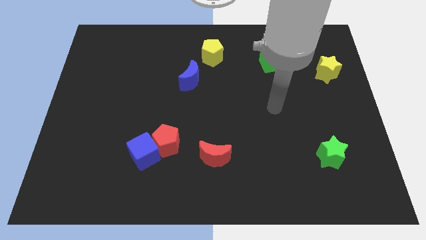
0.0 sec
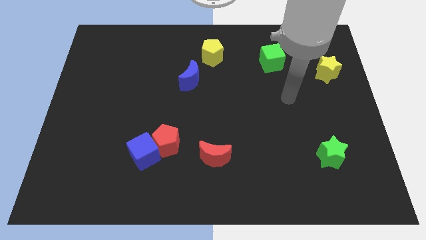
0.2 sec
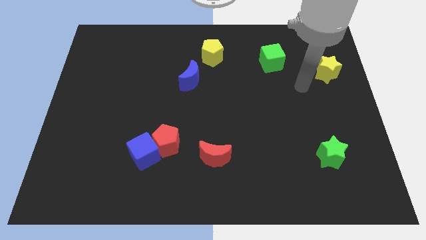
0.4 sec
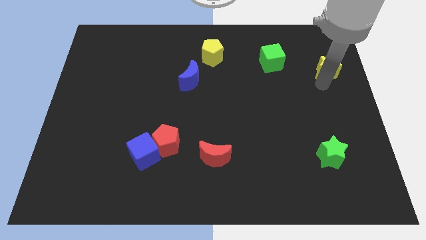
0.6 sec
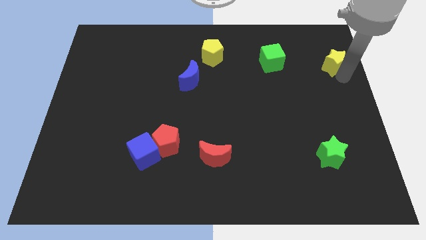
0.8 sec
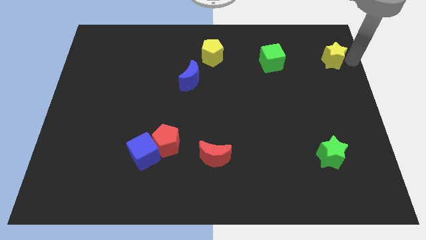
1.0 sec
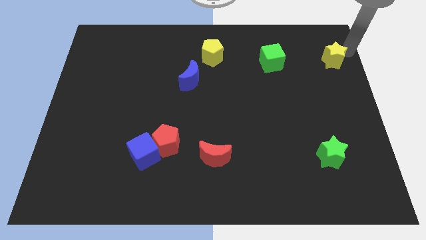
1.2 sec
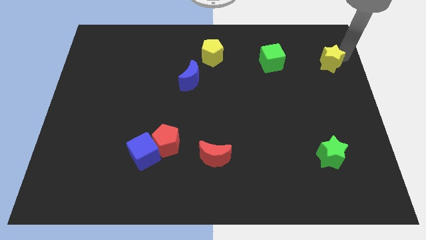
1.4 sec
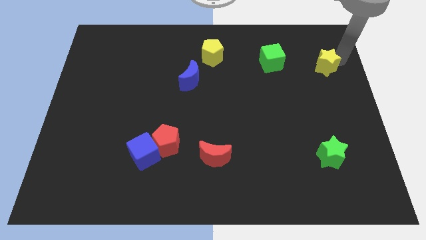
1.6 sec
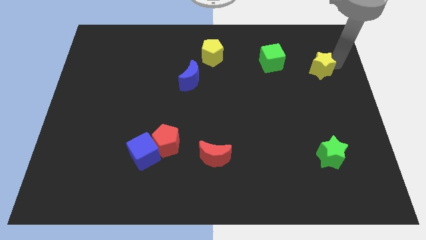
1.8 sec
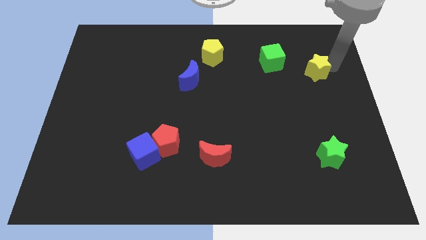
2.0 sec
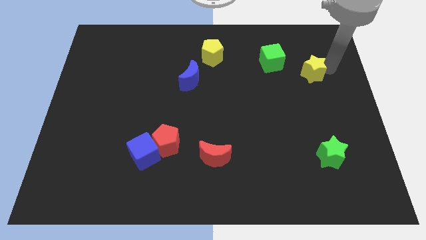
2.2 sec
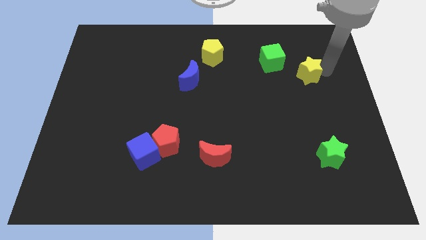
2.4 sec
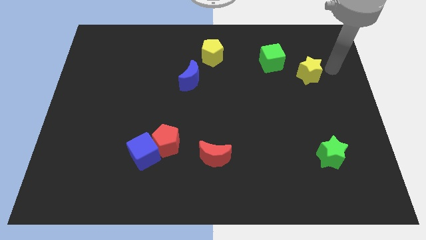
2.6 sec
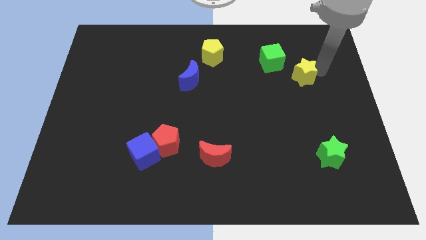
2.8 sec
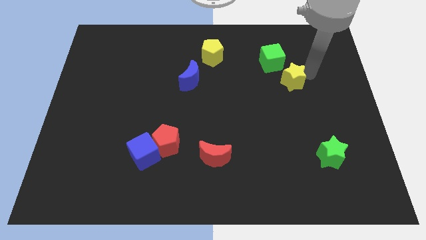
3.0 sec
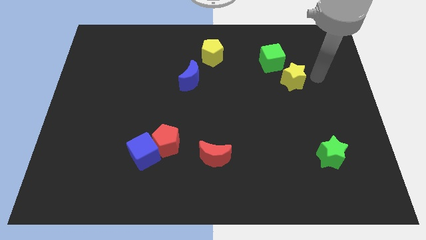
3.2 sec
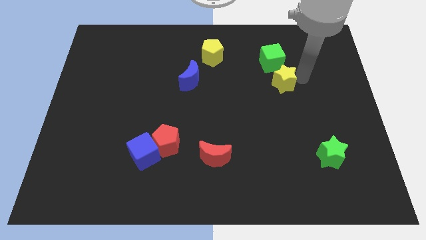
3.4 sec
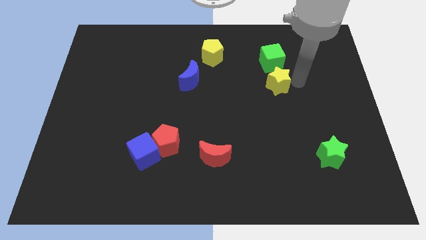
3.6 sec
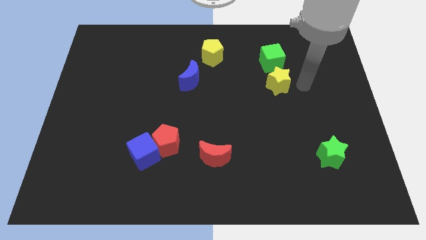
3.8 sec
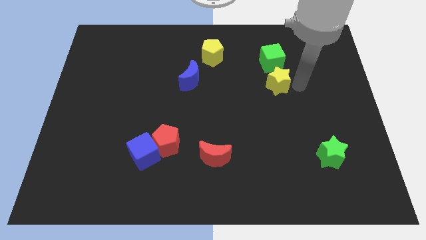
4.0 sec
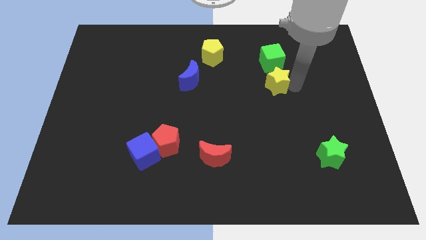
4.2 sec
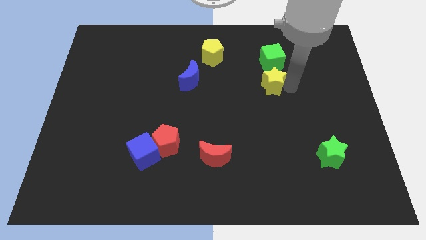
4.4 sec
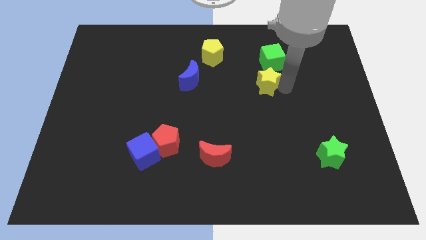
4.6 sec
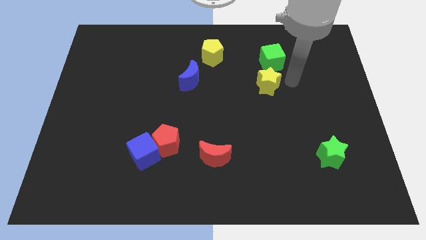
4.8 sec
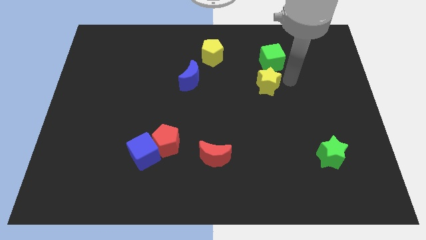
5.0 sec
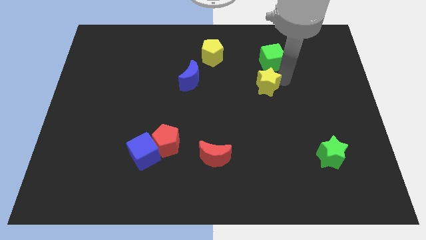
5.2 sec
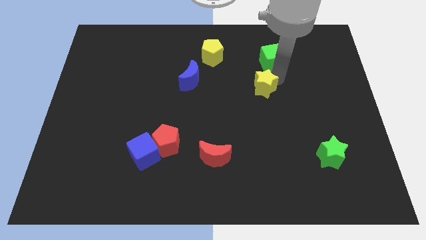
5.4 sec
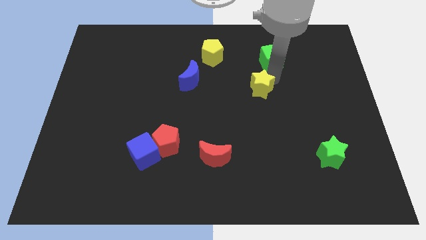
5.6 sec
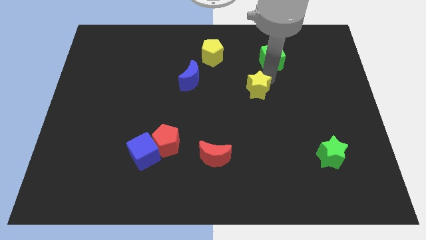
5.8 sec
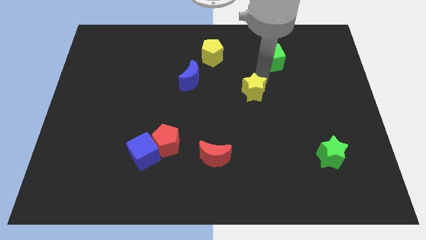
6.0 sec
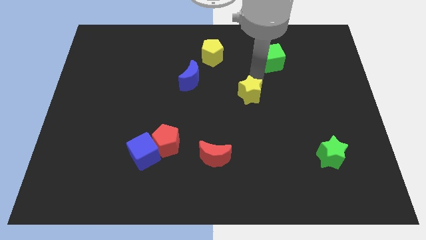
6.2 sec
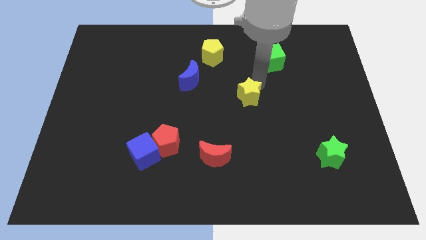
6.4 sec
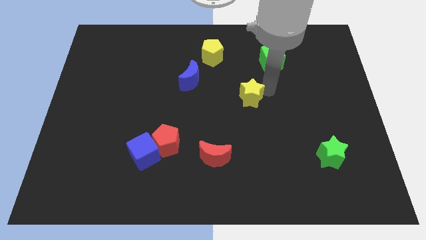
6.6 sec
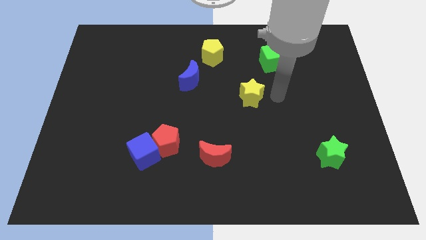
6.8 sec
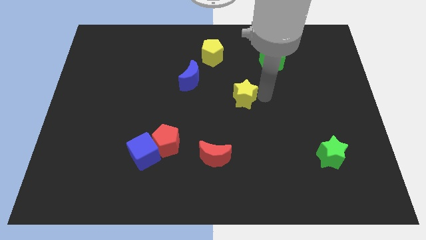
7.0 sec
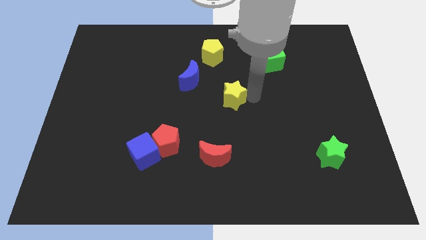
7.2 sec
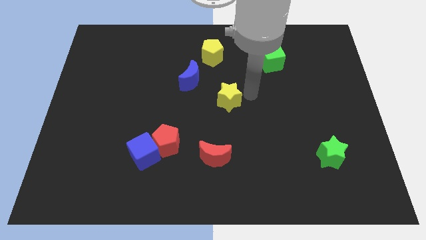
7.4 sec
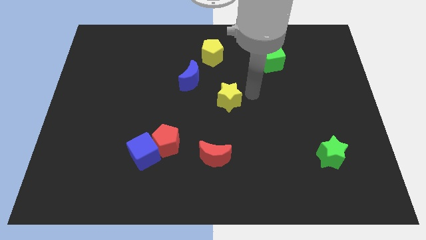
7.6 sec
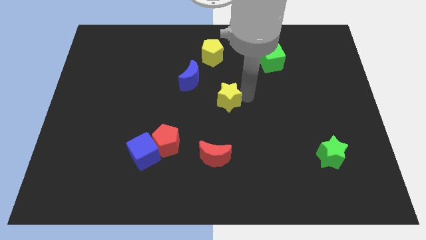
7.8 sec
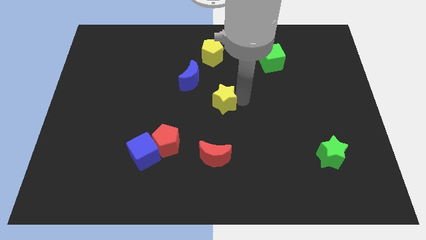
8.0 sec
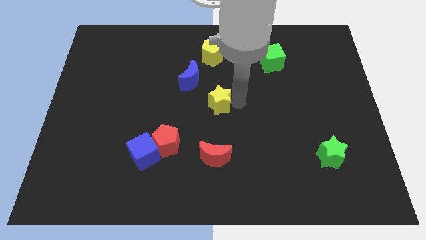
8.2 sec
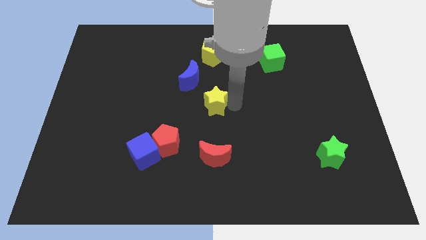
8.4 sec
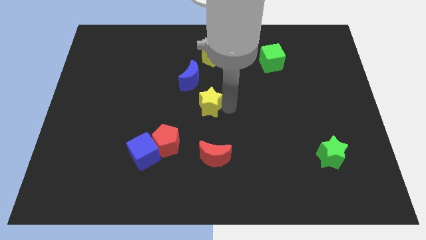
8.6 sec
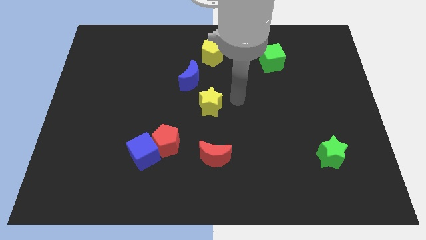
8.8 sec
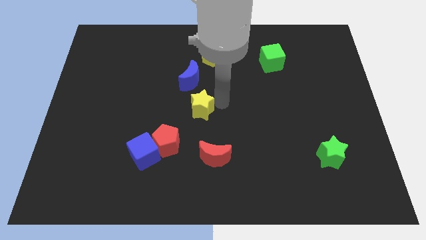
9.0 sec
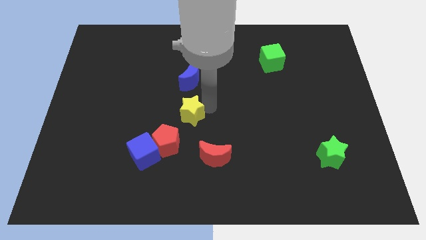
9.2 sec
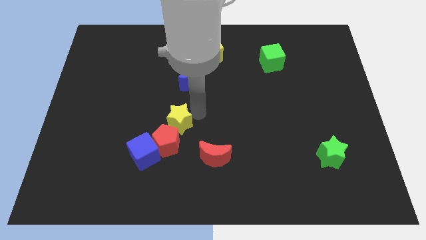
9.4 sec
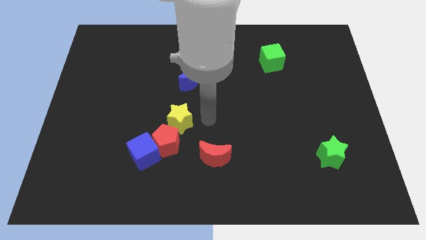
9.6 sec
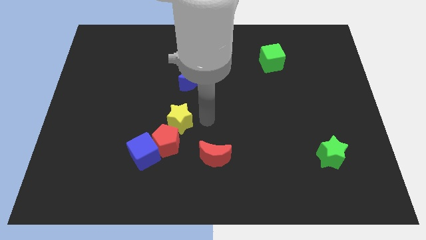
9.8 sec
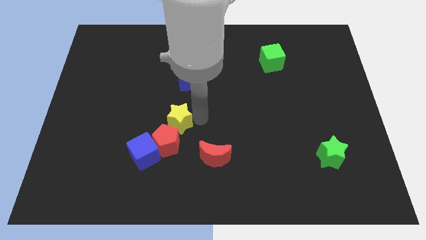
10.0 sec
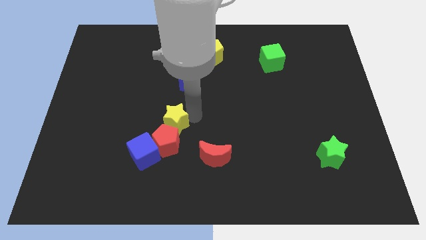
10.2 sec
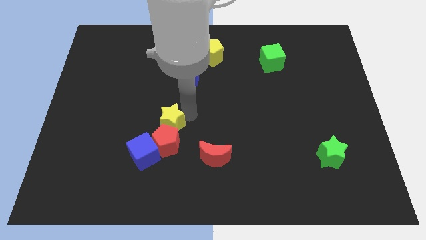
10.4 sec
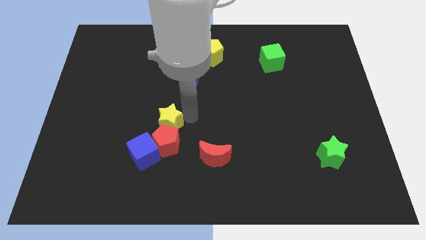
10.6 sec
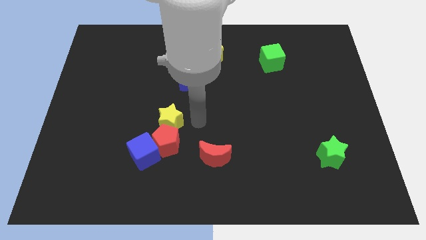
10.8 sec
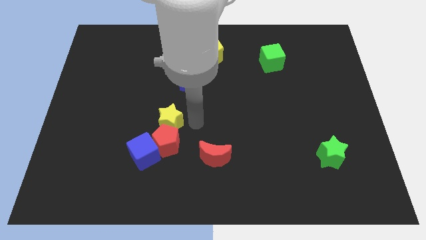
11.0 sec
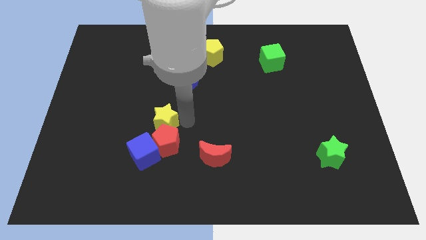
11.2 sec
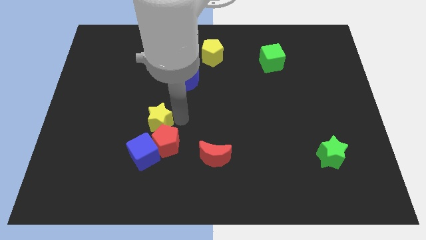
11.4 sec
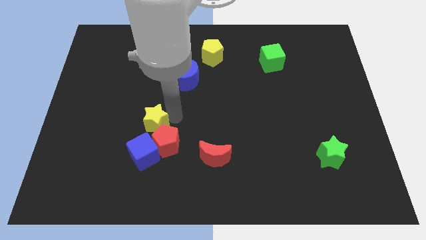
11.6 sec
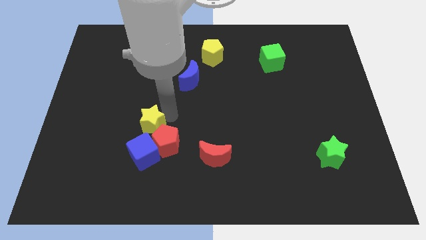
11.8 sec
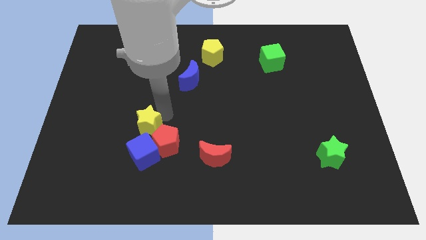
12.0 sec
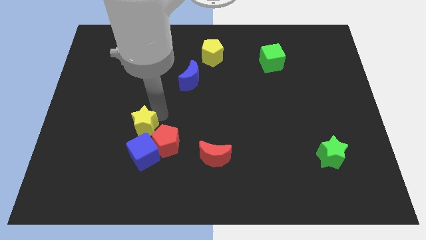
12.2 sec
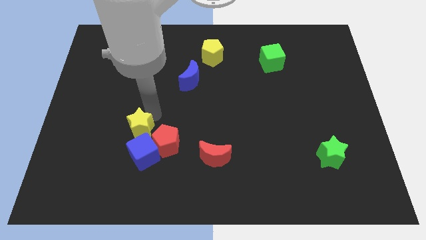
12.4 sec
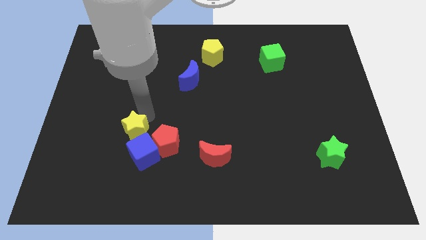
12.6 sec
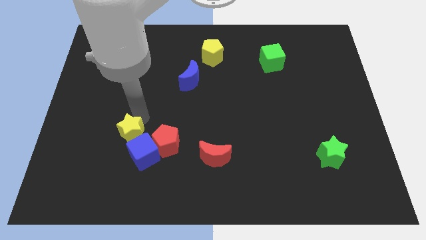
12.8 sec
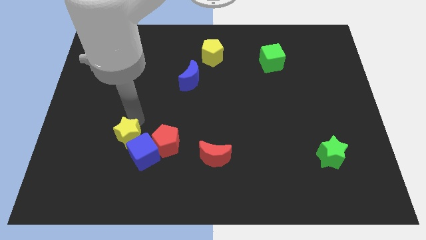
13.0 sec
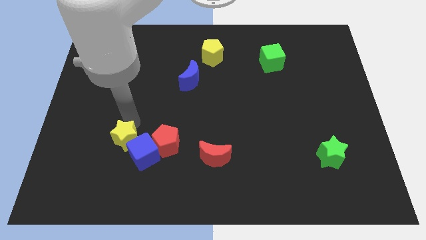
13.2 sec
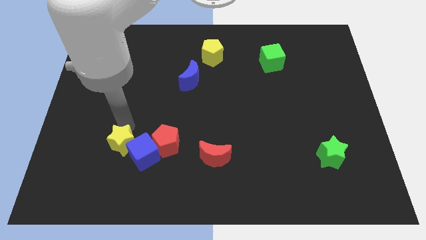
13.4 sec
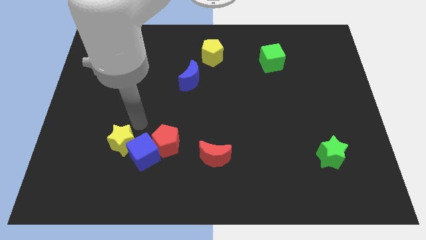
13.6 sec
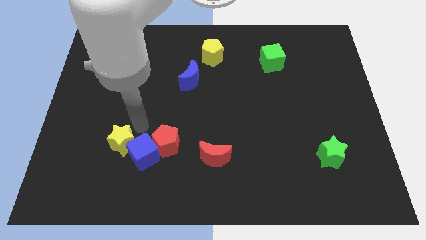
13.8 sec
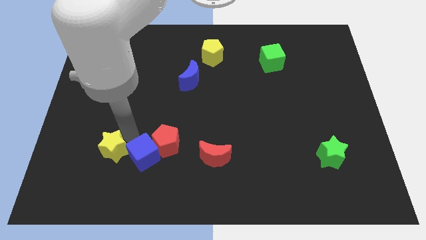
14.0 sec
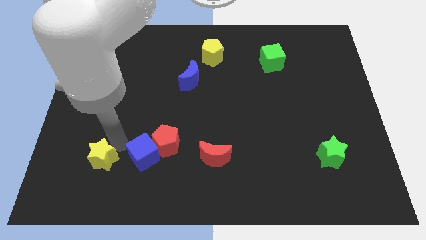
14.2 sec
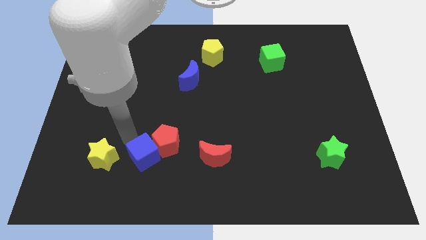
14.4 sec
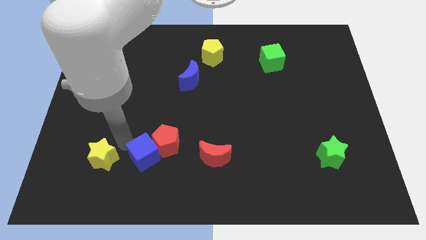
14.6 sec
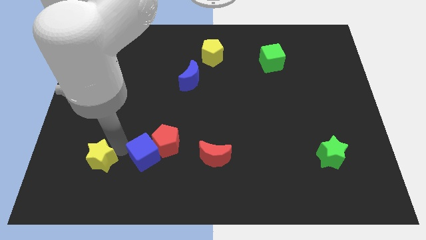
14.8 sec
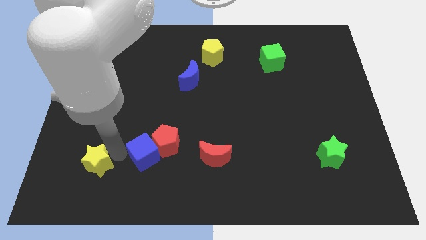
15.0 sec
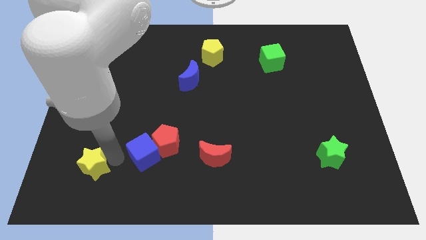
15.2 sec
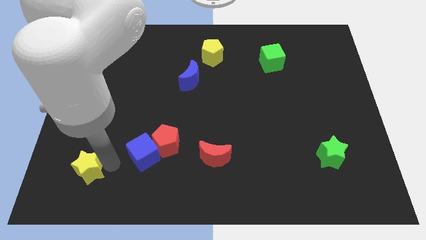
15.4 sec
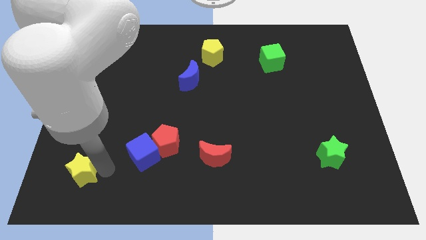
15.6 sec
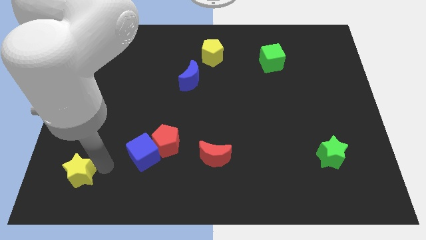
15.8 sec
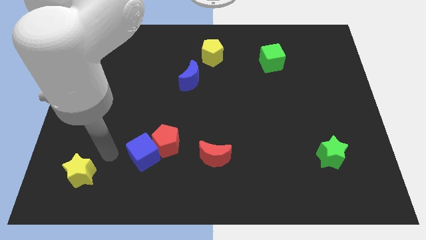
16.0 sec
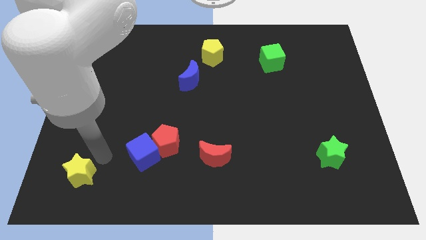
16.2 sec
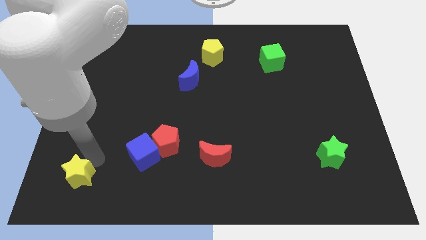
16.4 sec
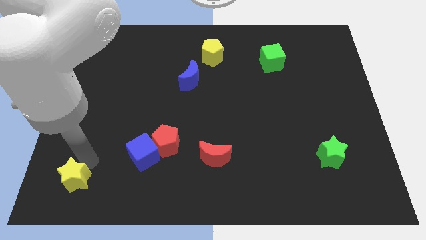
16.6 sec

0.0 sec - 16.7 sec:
push the yellow star to the bottom left corner
